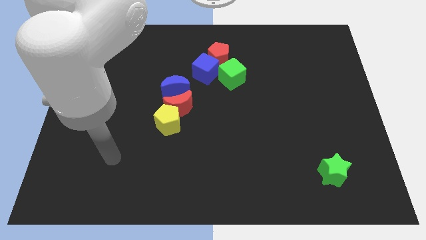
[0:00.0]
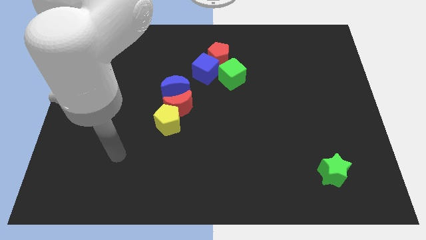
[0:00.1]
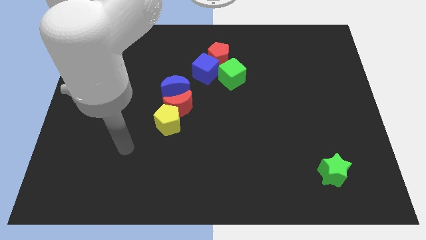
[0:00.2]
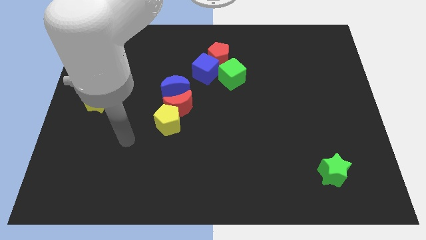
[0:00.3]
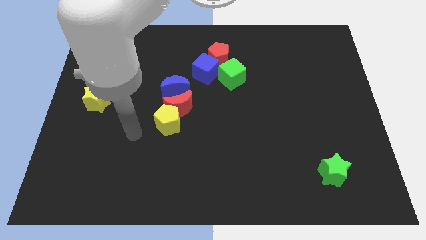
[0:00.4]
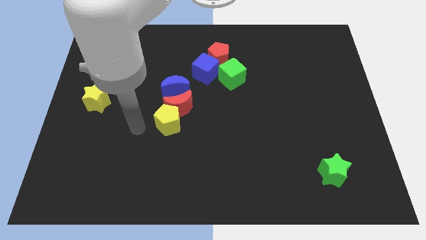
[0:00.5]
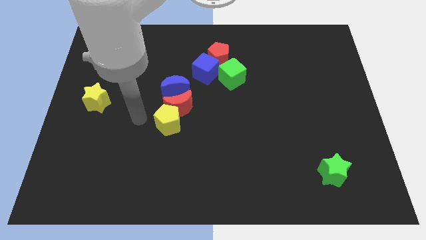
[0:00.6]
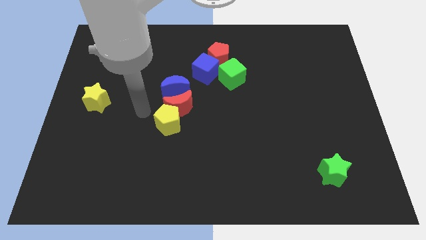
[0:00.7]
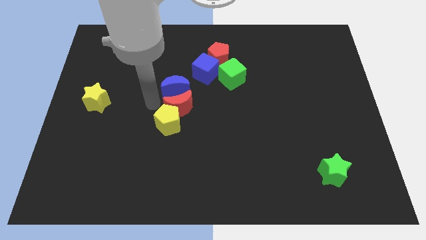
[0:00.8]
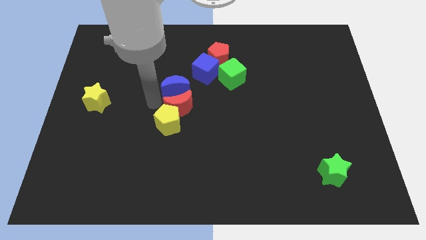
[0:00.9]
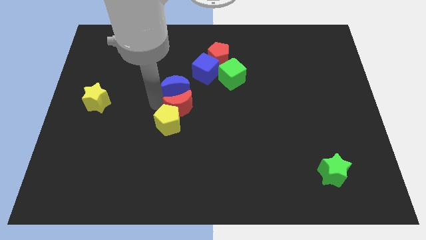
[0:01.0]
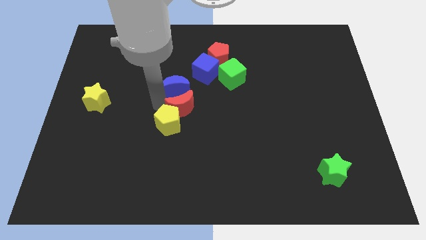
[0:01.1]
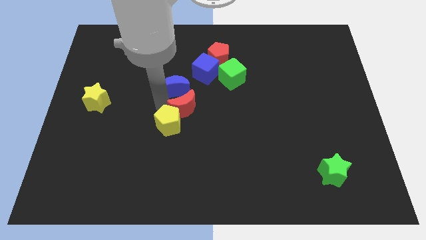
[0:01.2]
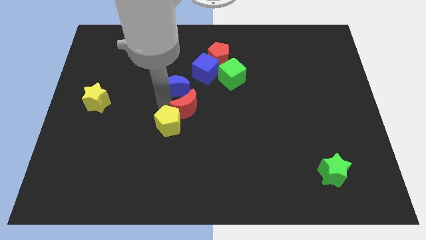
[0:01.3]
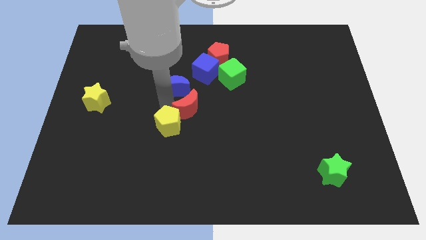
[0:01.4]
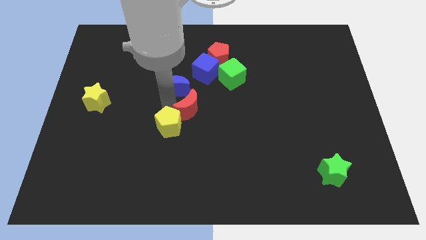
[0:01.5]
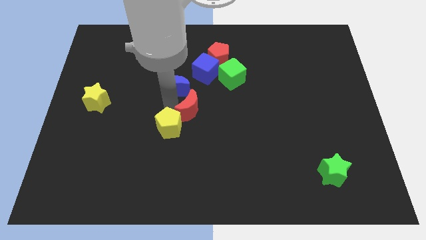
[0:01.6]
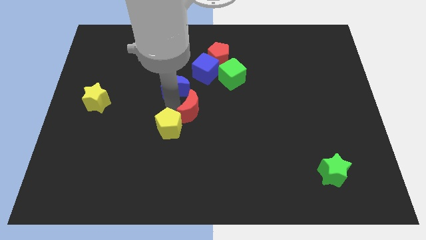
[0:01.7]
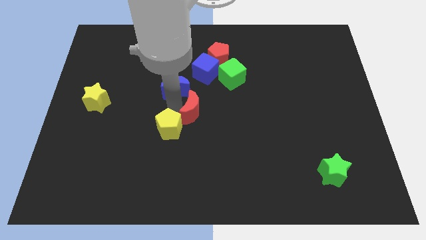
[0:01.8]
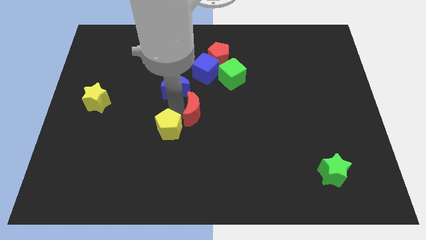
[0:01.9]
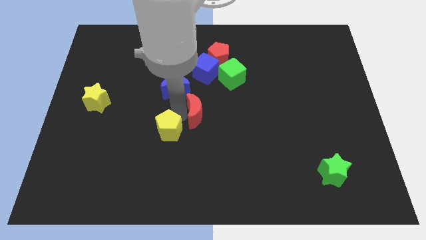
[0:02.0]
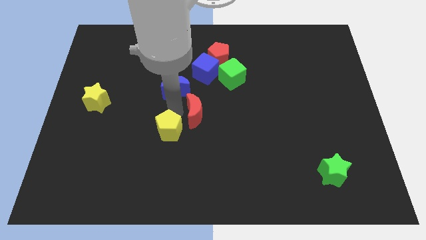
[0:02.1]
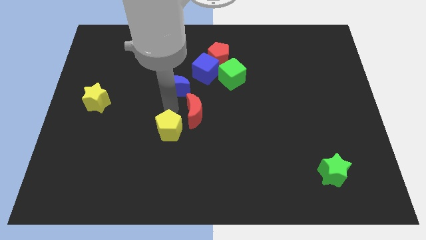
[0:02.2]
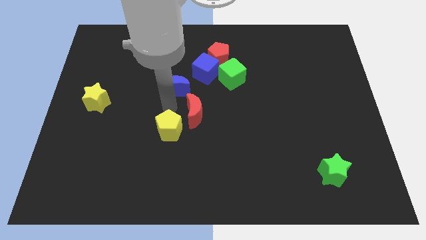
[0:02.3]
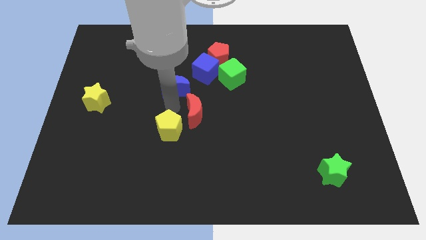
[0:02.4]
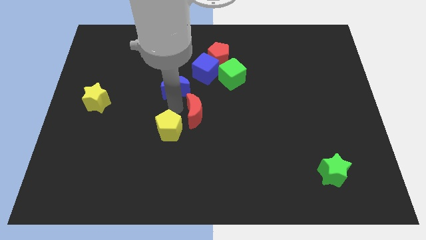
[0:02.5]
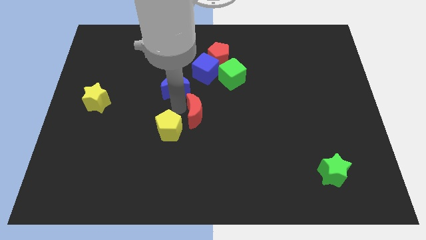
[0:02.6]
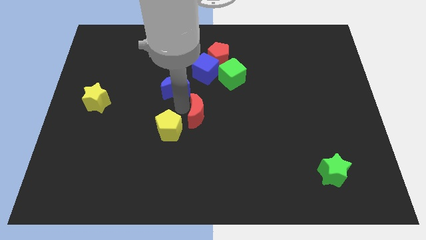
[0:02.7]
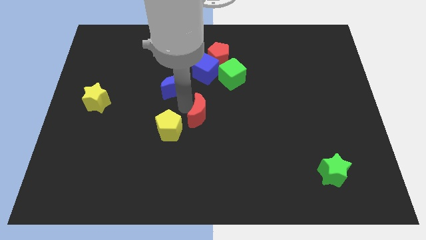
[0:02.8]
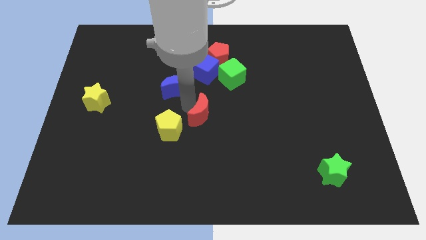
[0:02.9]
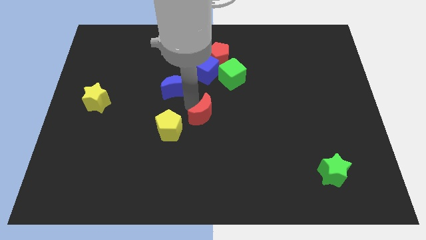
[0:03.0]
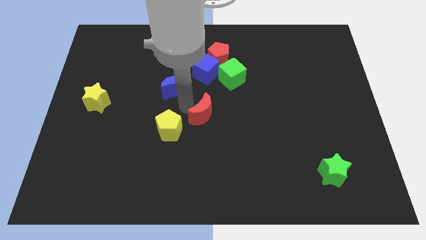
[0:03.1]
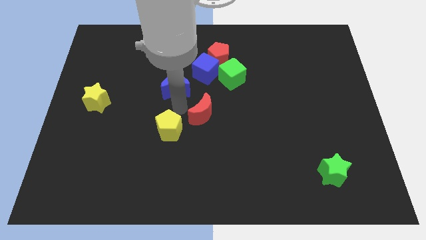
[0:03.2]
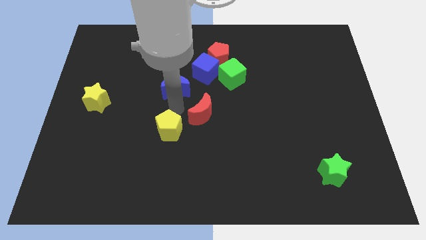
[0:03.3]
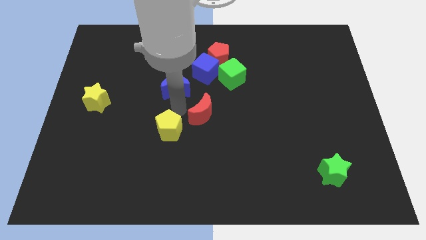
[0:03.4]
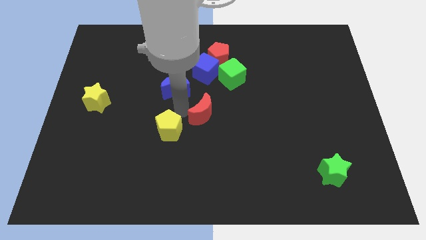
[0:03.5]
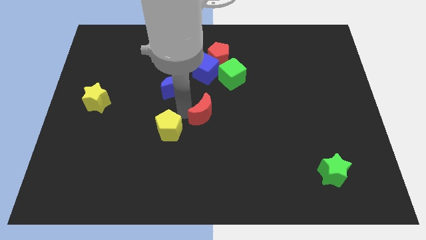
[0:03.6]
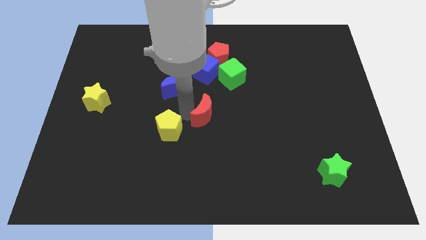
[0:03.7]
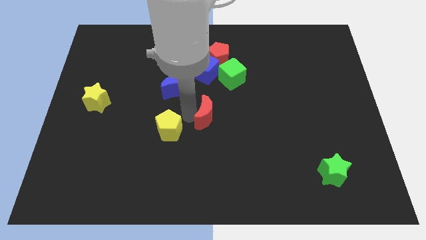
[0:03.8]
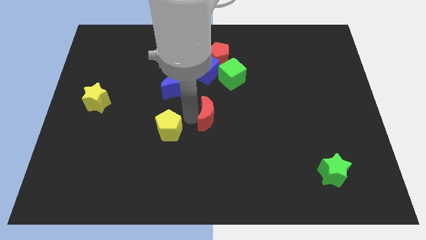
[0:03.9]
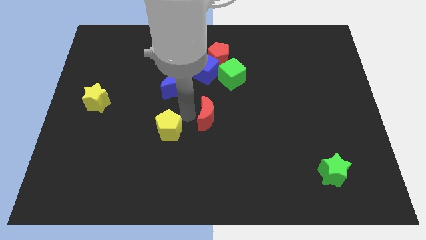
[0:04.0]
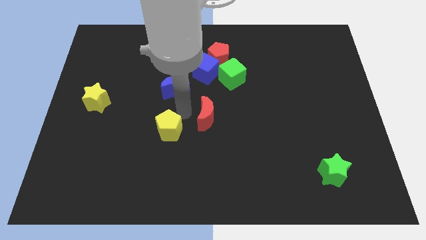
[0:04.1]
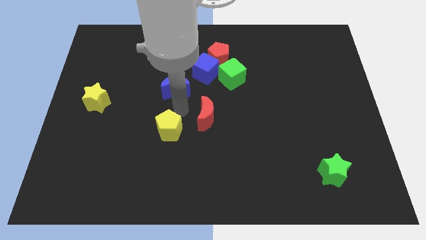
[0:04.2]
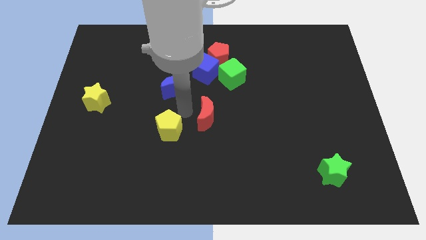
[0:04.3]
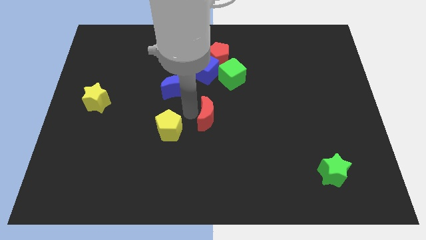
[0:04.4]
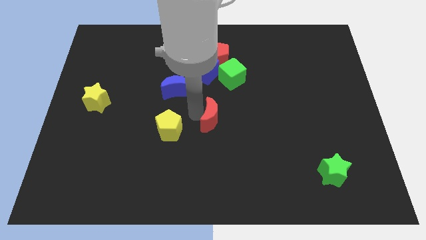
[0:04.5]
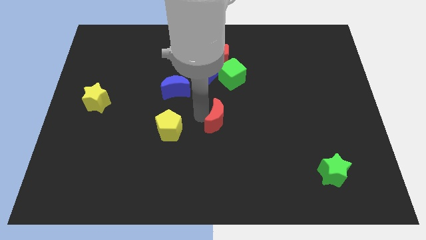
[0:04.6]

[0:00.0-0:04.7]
pull the red moon apart from the yellow pentagon and blue moon

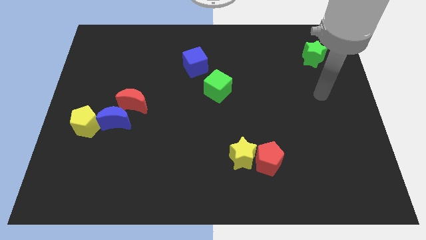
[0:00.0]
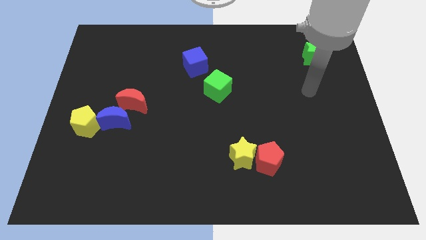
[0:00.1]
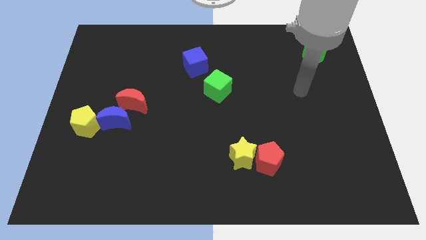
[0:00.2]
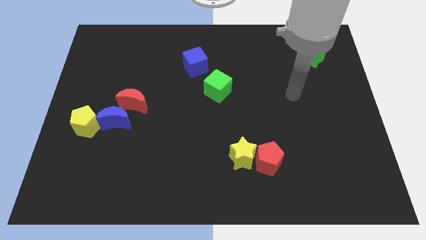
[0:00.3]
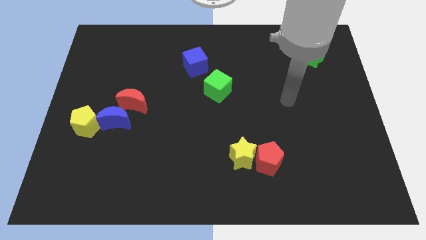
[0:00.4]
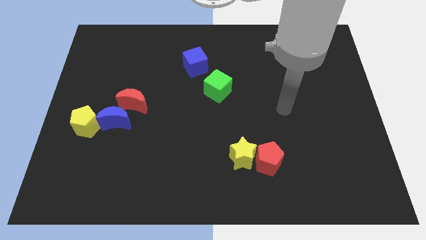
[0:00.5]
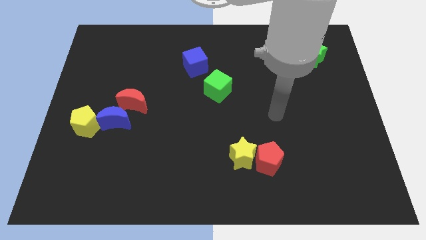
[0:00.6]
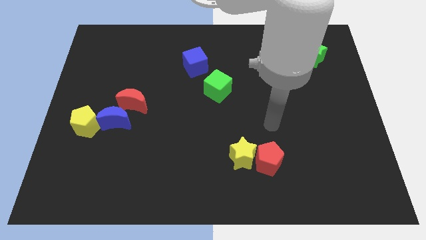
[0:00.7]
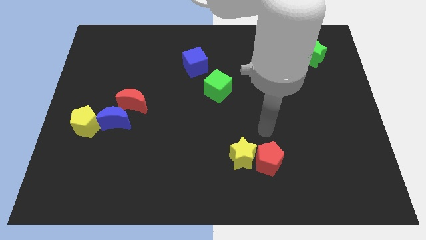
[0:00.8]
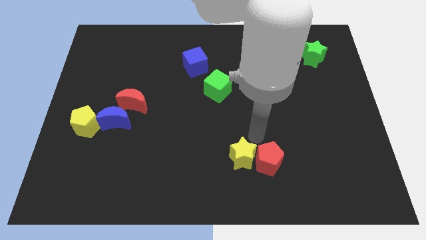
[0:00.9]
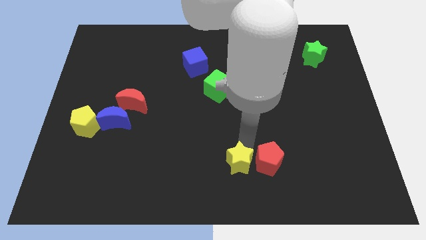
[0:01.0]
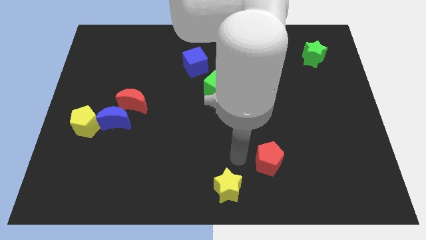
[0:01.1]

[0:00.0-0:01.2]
separate the red pentagon from the yellow star

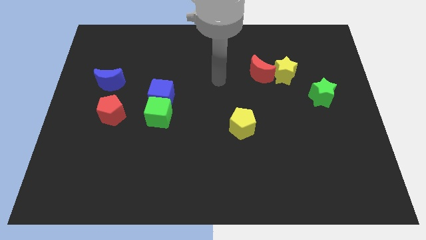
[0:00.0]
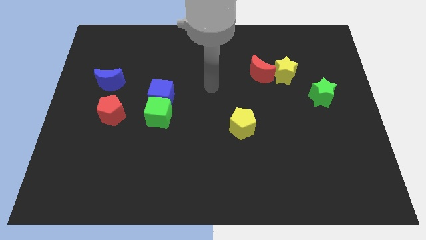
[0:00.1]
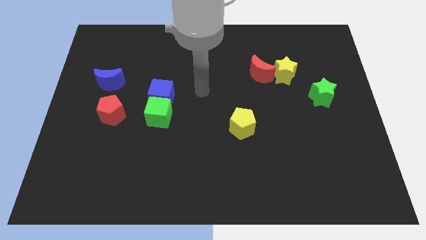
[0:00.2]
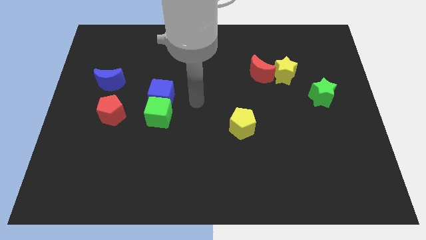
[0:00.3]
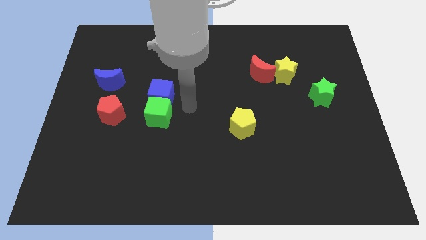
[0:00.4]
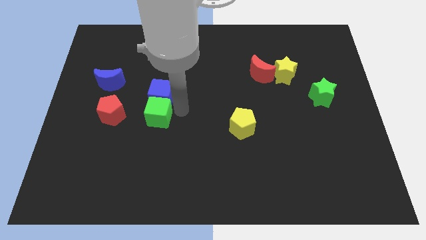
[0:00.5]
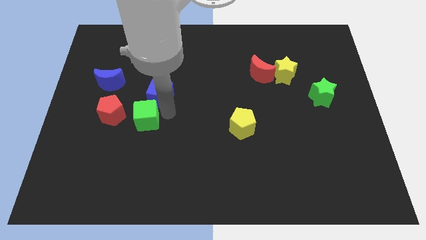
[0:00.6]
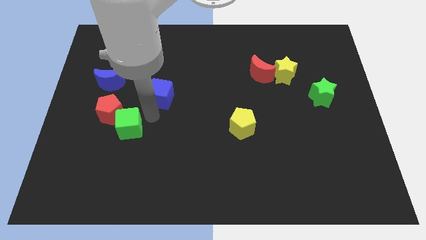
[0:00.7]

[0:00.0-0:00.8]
move the blue cube away from the green cube

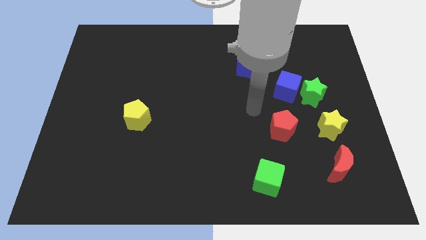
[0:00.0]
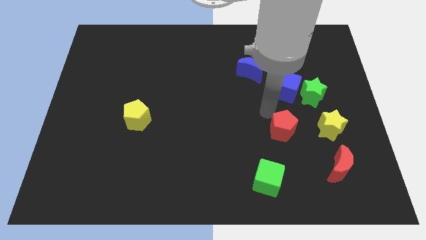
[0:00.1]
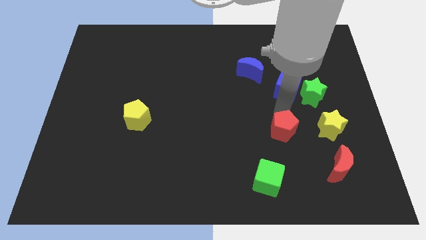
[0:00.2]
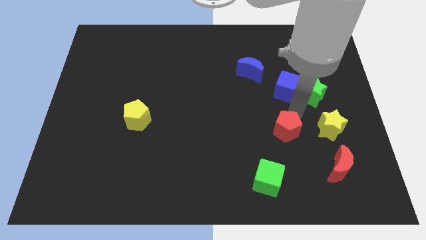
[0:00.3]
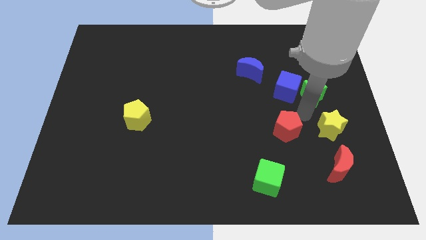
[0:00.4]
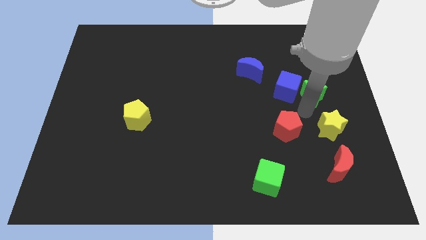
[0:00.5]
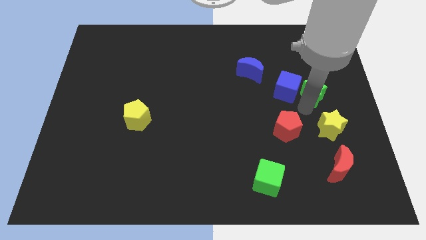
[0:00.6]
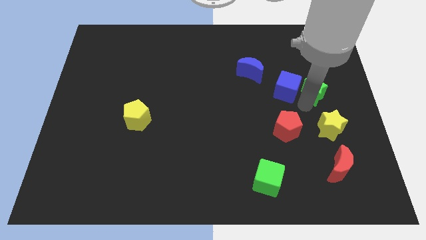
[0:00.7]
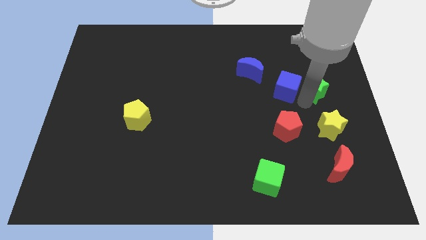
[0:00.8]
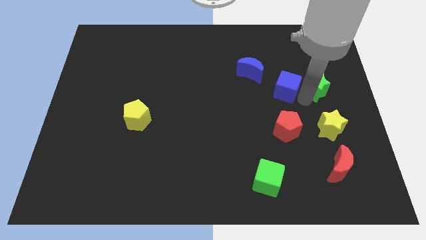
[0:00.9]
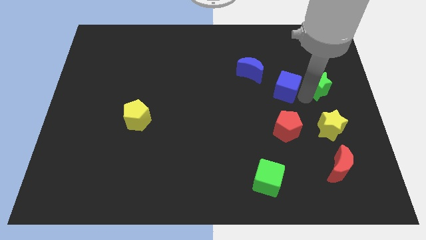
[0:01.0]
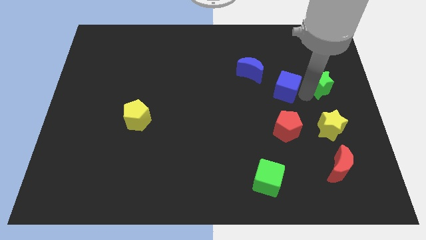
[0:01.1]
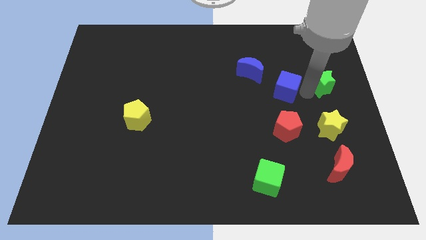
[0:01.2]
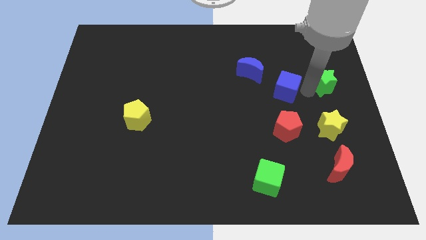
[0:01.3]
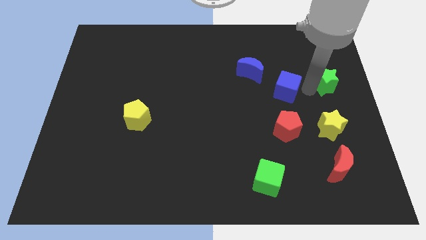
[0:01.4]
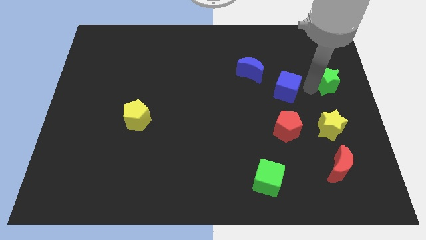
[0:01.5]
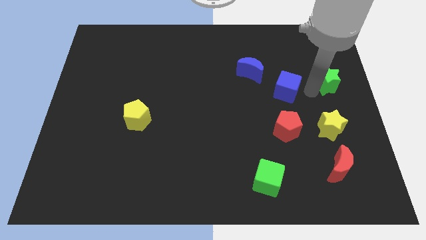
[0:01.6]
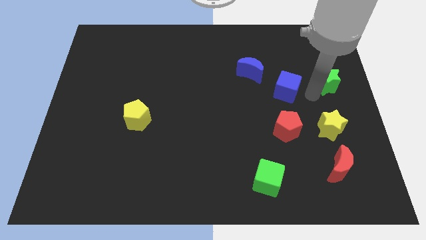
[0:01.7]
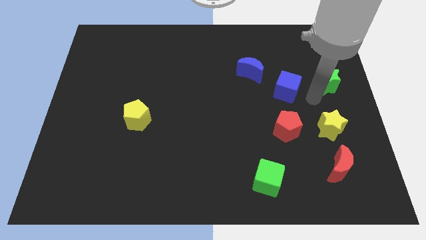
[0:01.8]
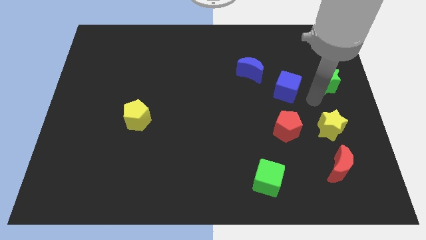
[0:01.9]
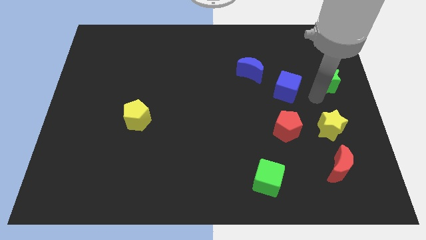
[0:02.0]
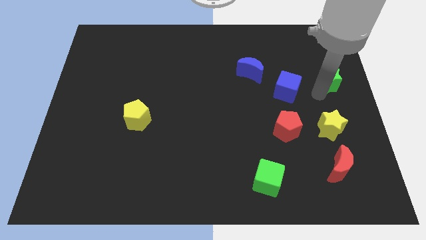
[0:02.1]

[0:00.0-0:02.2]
pull the green star apart from the blue cube and yellow star

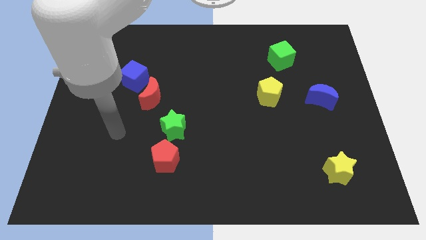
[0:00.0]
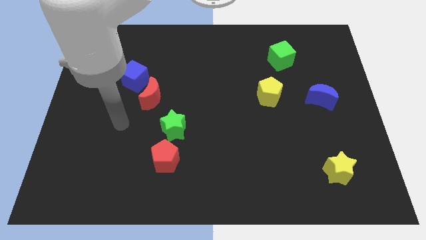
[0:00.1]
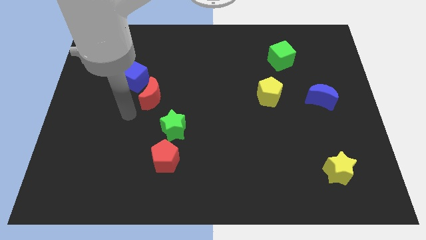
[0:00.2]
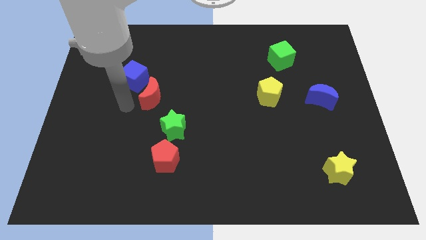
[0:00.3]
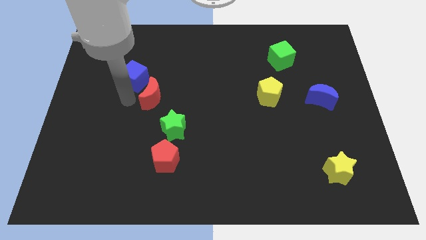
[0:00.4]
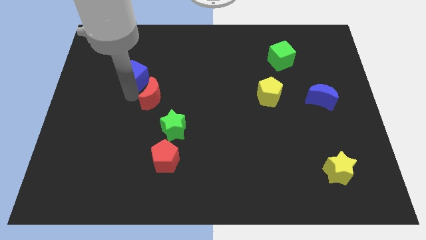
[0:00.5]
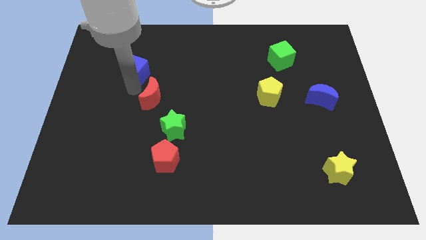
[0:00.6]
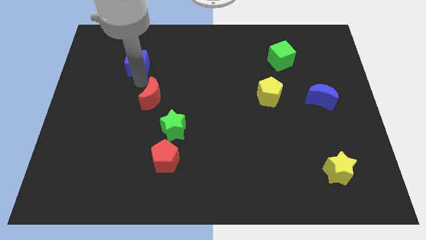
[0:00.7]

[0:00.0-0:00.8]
separate the red moon from the blue cube
